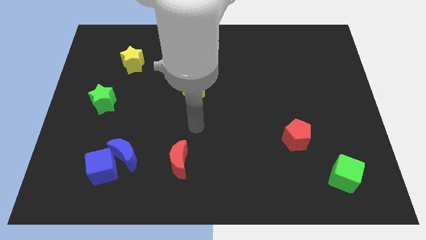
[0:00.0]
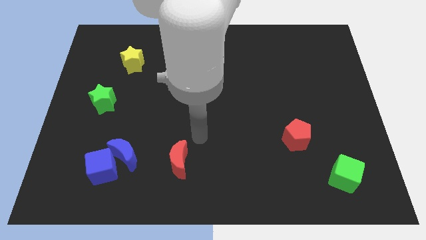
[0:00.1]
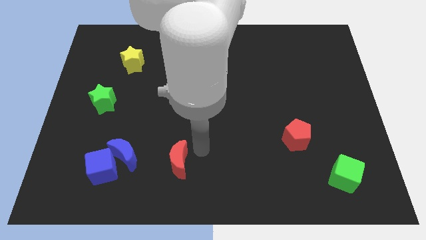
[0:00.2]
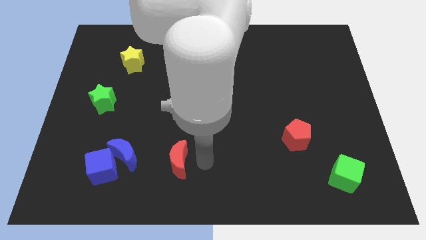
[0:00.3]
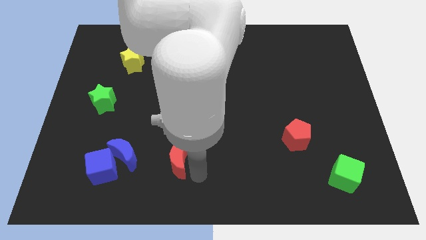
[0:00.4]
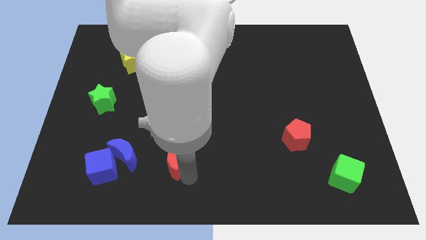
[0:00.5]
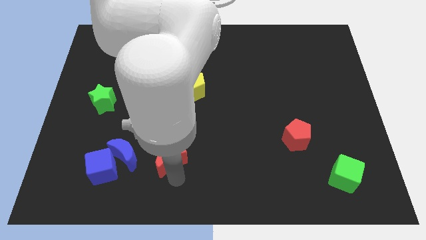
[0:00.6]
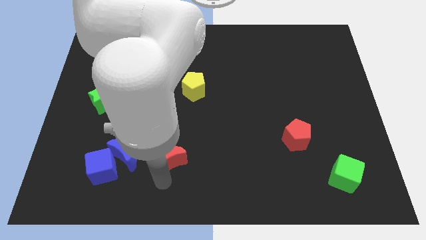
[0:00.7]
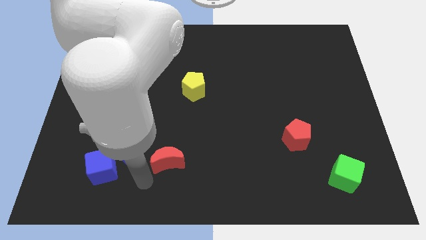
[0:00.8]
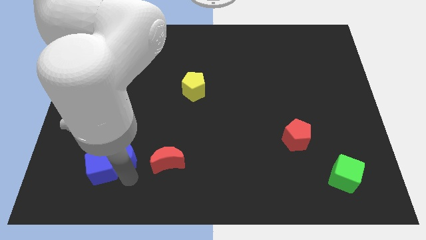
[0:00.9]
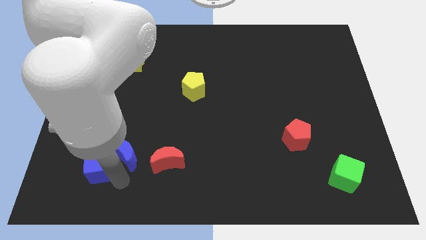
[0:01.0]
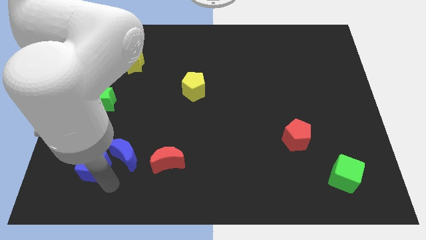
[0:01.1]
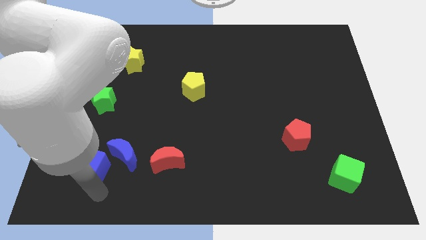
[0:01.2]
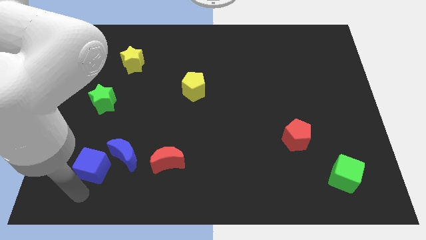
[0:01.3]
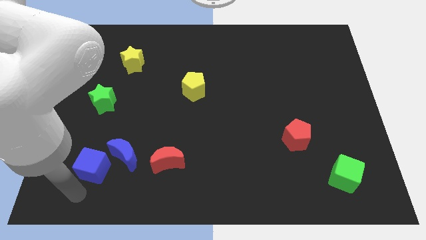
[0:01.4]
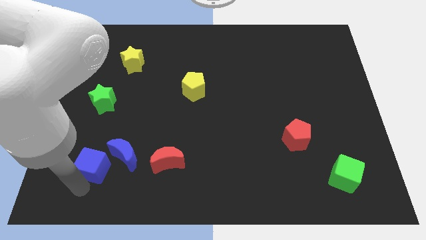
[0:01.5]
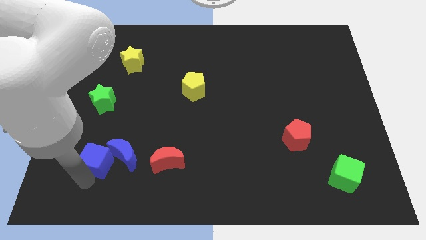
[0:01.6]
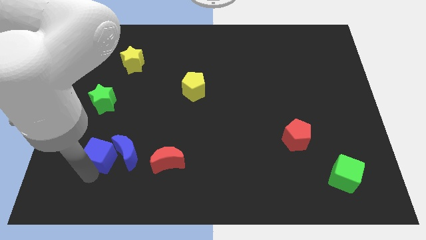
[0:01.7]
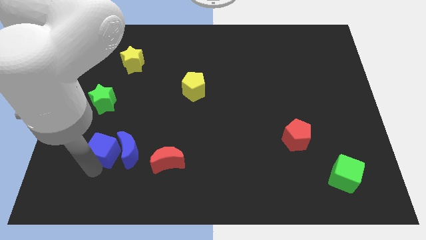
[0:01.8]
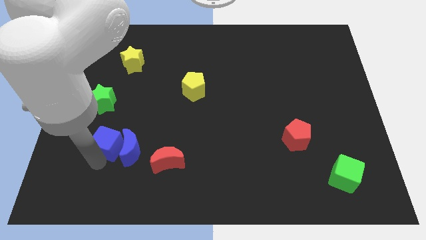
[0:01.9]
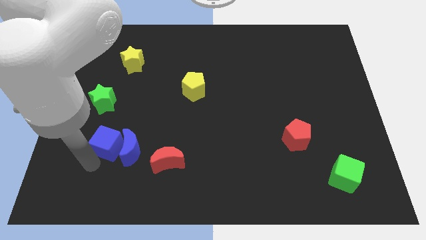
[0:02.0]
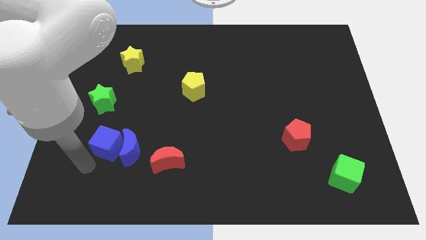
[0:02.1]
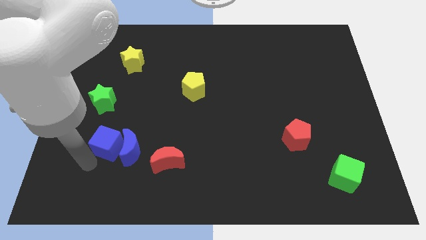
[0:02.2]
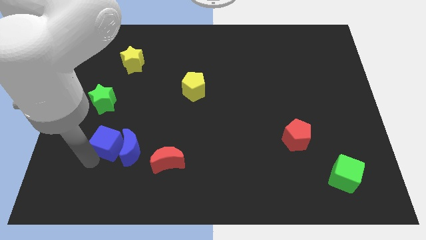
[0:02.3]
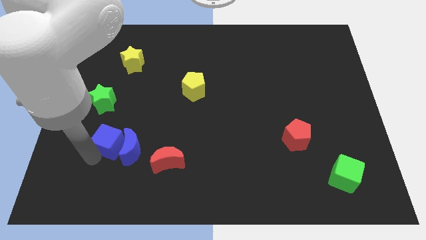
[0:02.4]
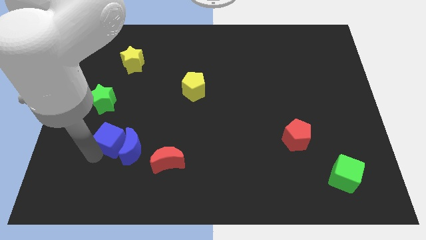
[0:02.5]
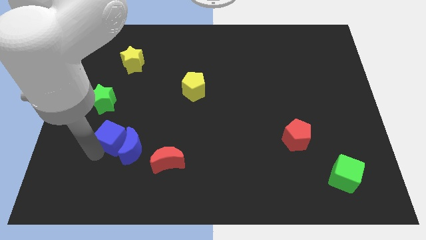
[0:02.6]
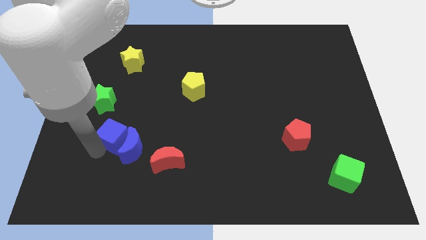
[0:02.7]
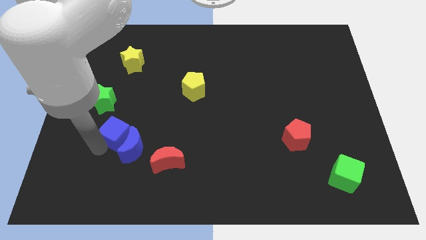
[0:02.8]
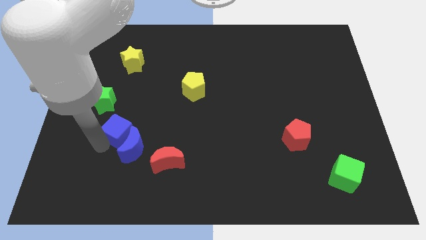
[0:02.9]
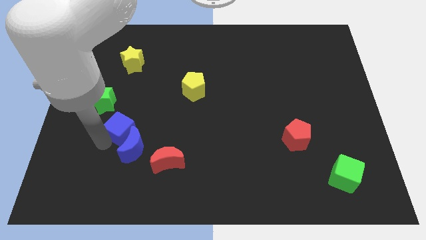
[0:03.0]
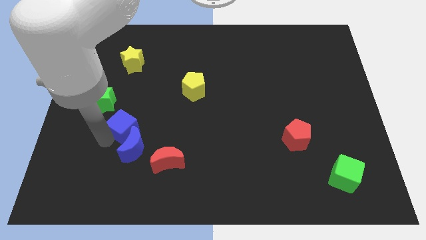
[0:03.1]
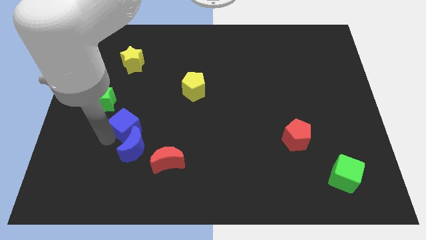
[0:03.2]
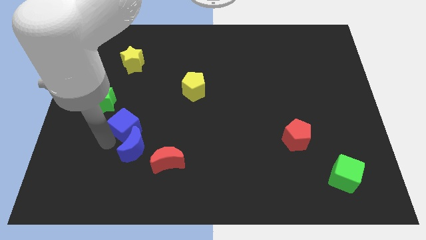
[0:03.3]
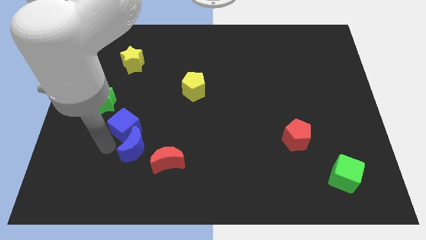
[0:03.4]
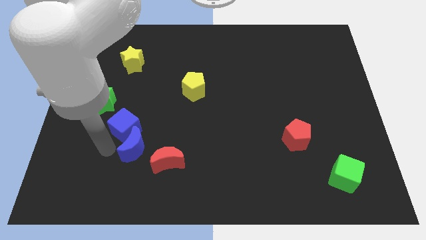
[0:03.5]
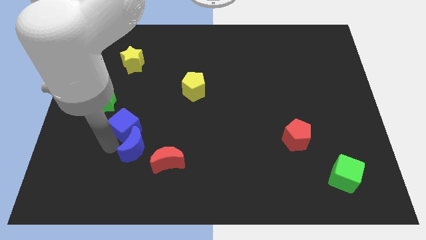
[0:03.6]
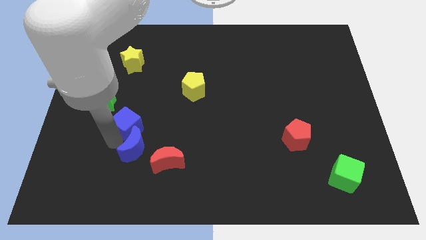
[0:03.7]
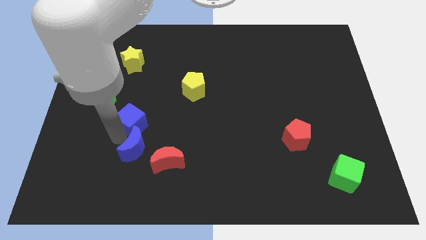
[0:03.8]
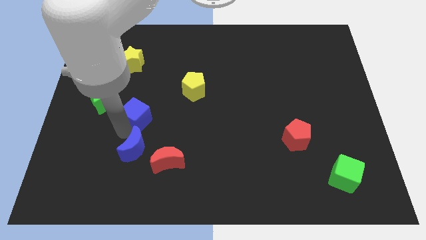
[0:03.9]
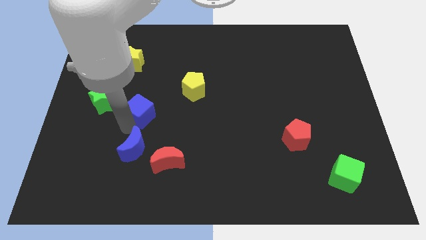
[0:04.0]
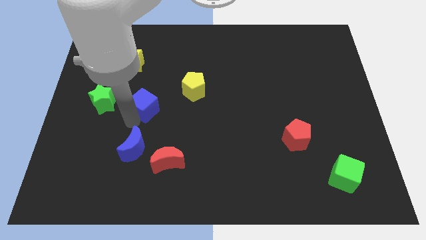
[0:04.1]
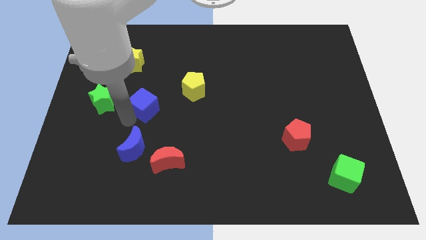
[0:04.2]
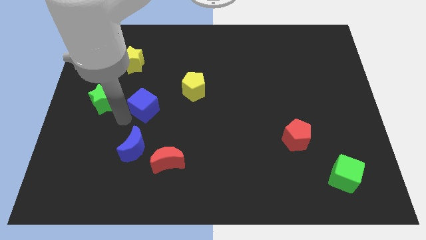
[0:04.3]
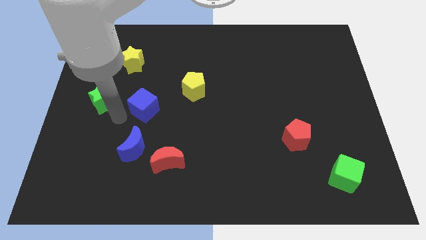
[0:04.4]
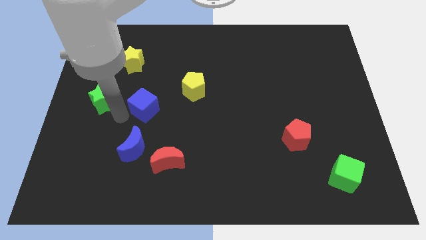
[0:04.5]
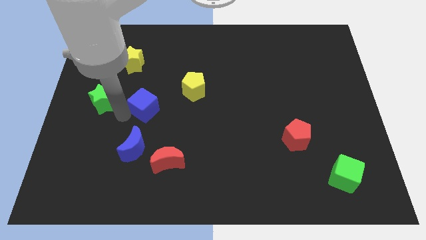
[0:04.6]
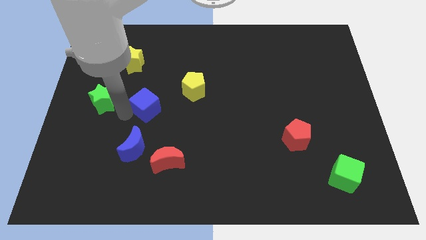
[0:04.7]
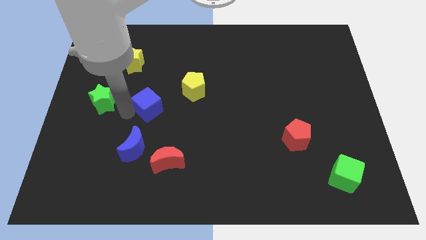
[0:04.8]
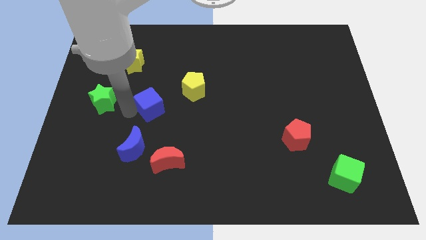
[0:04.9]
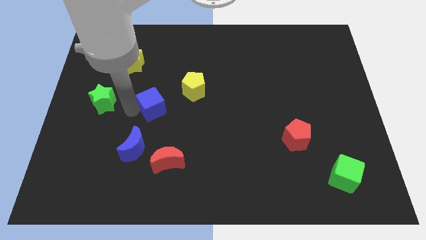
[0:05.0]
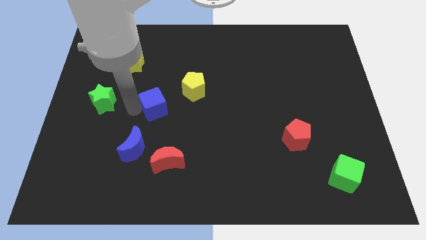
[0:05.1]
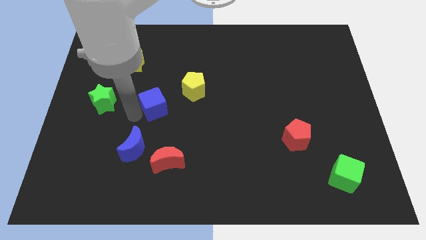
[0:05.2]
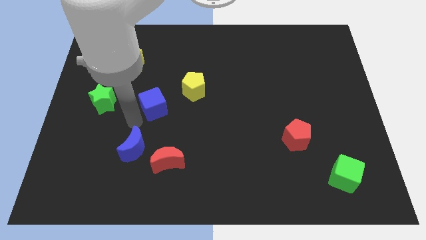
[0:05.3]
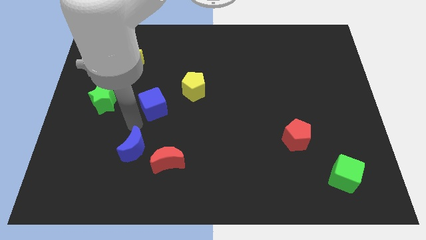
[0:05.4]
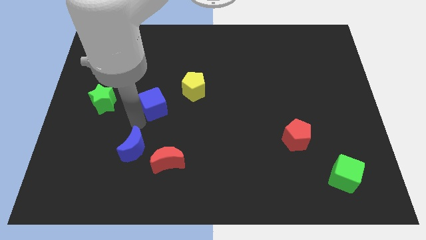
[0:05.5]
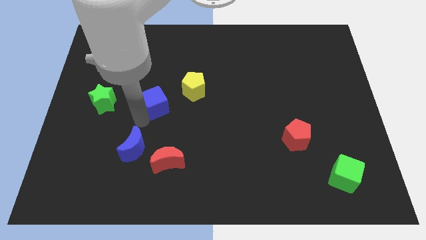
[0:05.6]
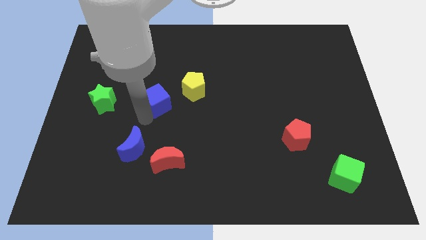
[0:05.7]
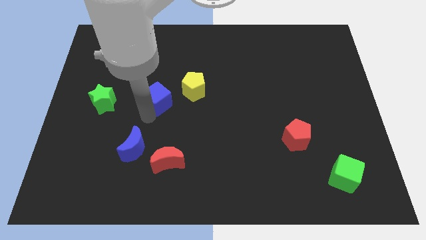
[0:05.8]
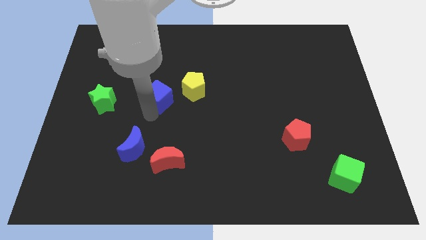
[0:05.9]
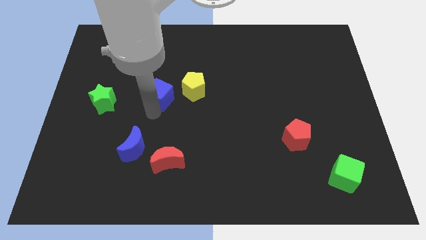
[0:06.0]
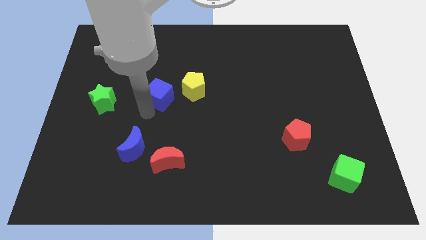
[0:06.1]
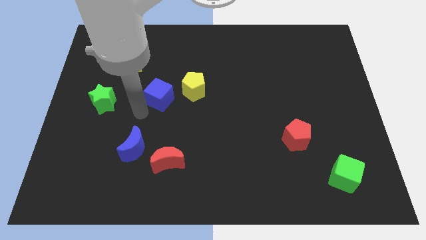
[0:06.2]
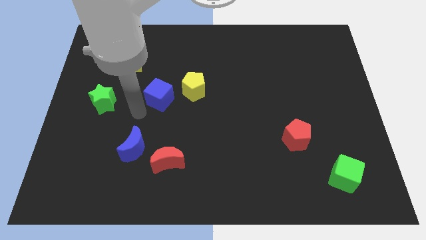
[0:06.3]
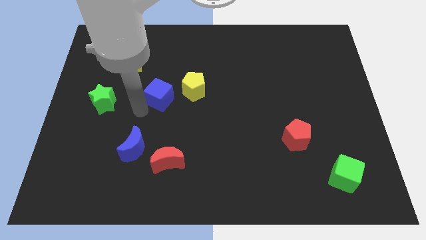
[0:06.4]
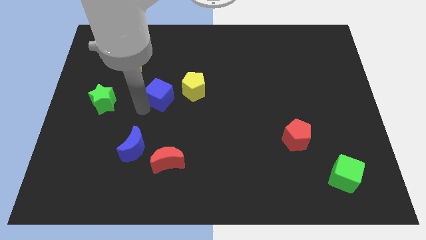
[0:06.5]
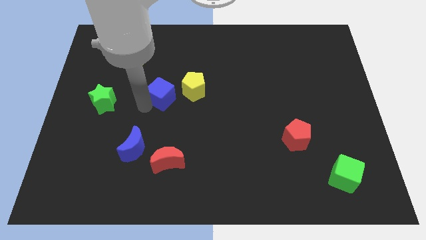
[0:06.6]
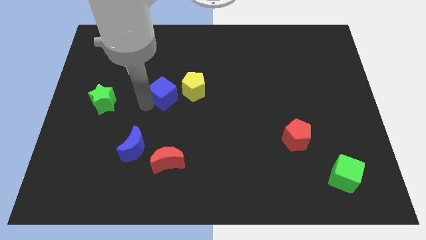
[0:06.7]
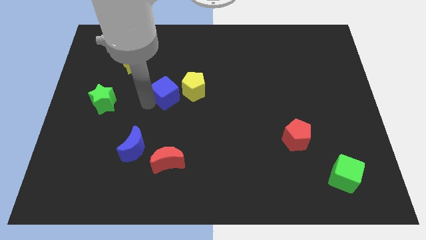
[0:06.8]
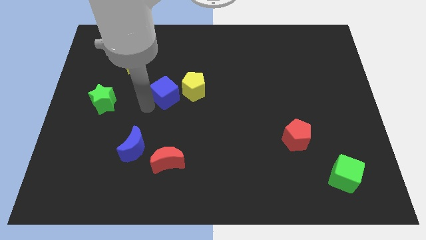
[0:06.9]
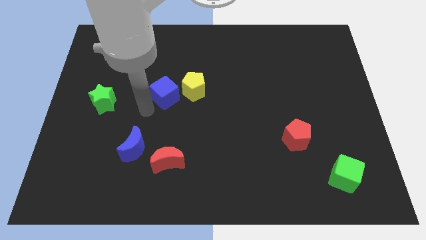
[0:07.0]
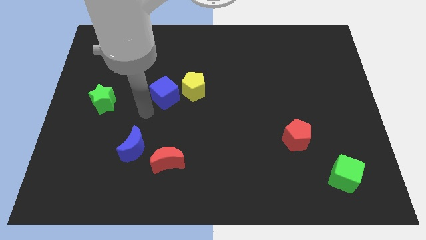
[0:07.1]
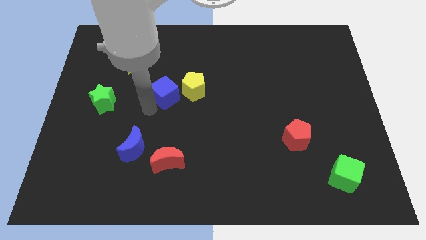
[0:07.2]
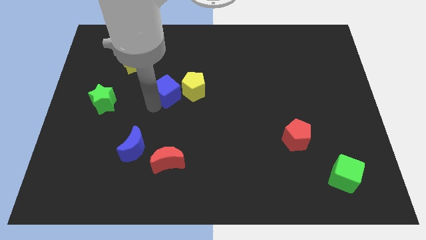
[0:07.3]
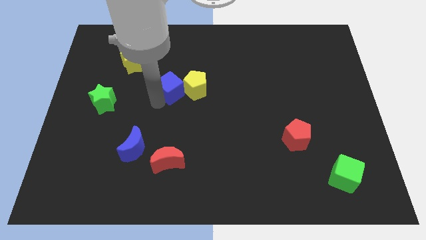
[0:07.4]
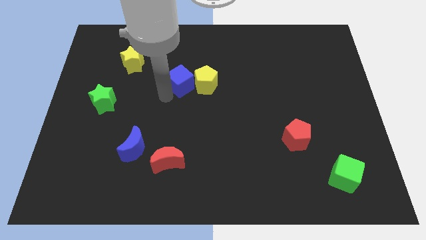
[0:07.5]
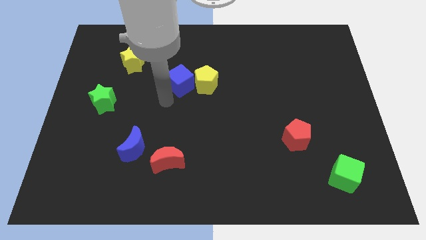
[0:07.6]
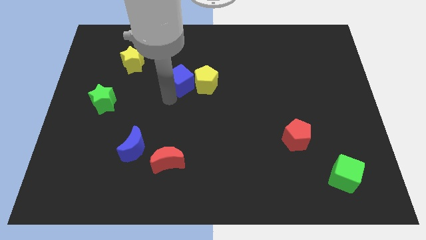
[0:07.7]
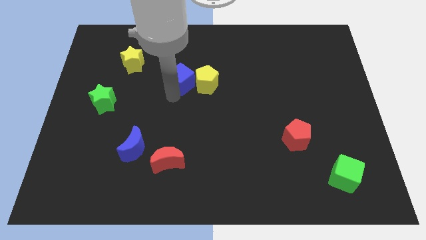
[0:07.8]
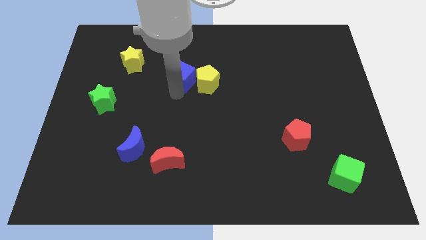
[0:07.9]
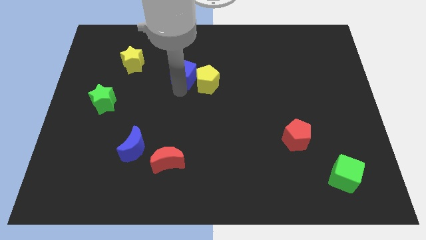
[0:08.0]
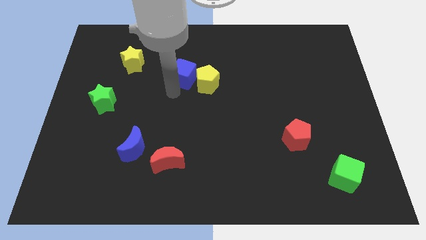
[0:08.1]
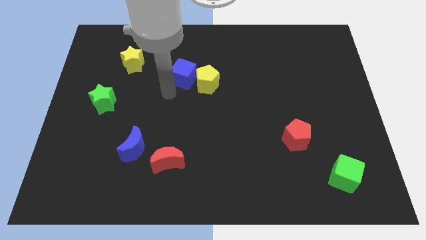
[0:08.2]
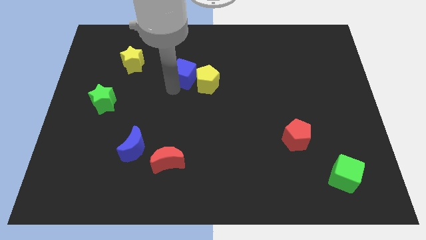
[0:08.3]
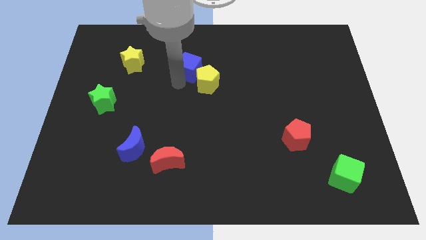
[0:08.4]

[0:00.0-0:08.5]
push the blue cube to the top side of the yellow pentagon
